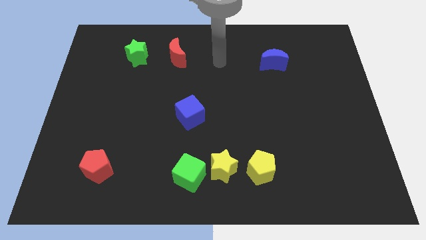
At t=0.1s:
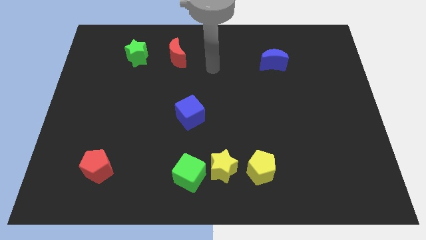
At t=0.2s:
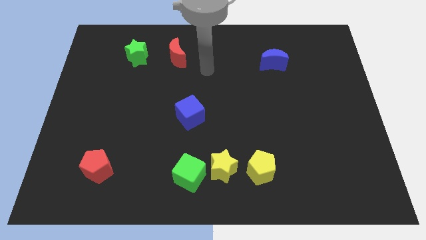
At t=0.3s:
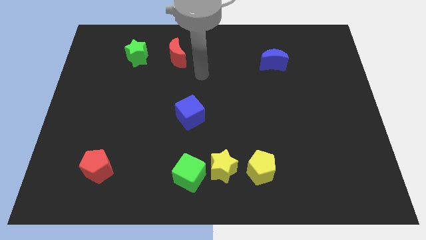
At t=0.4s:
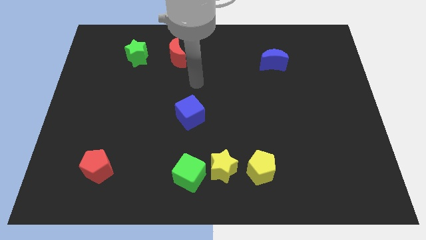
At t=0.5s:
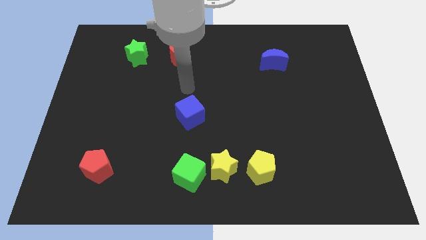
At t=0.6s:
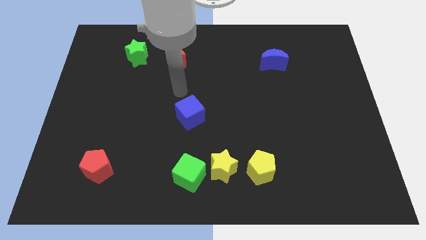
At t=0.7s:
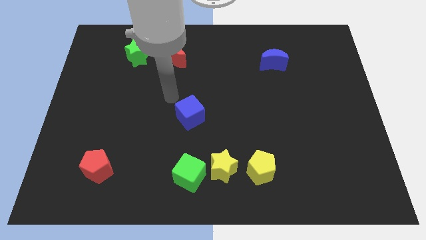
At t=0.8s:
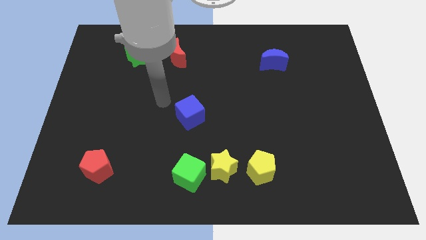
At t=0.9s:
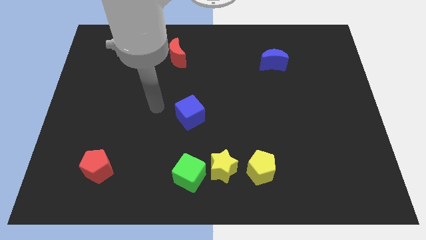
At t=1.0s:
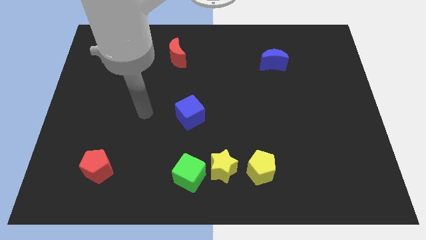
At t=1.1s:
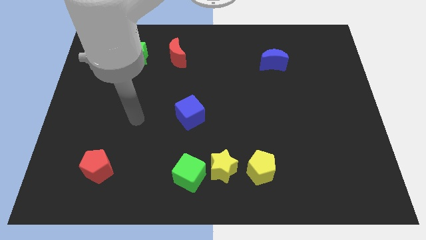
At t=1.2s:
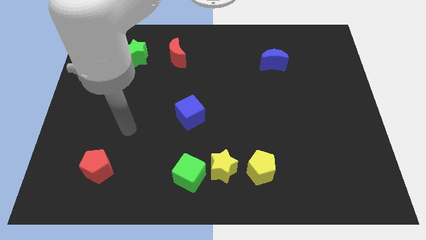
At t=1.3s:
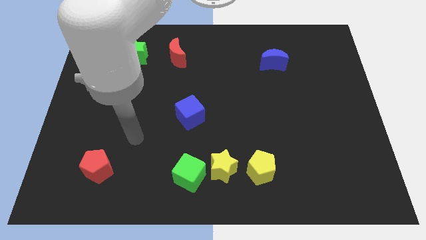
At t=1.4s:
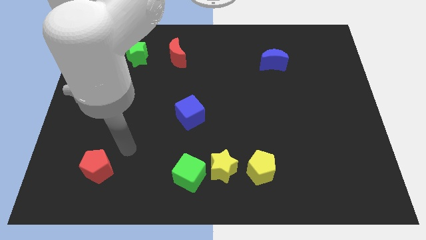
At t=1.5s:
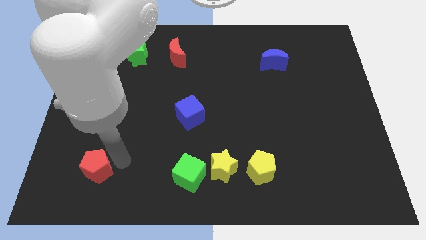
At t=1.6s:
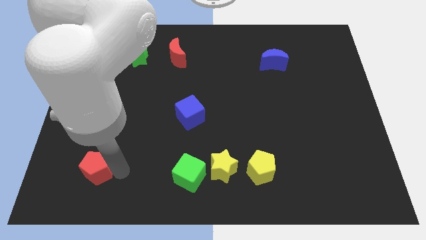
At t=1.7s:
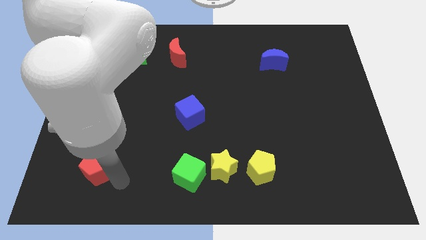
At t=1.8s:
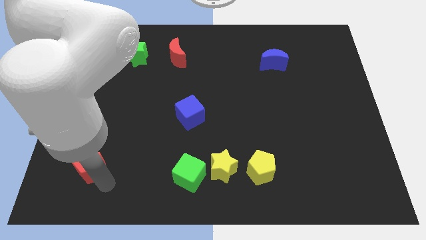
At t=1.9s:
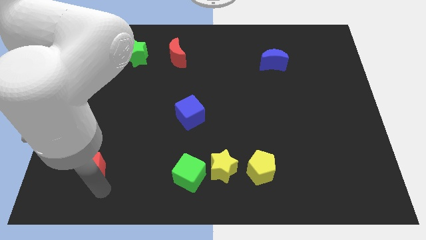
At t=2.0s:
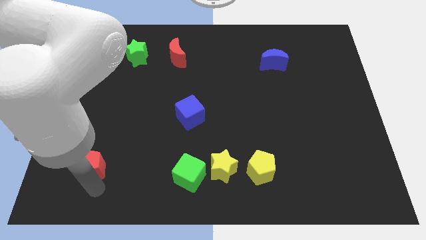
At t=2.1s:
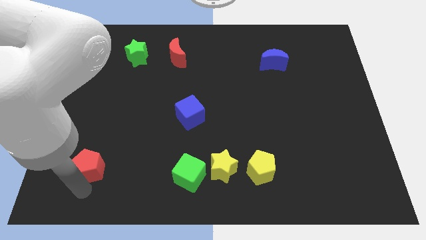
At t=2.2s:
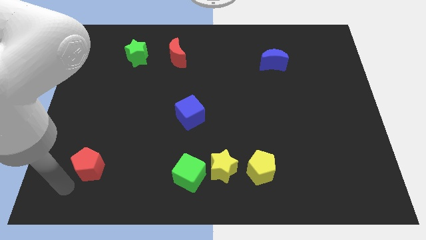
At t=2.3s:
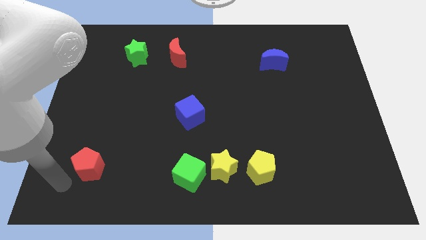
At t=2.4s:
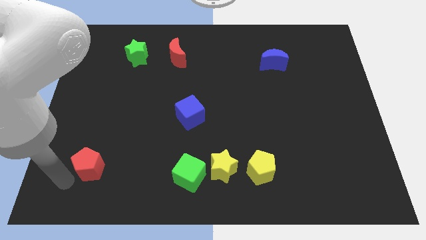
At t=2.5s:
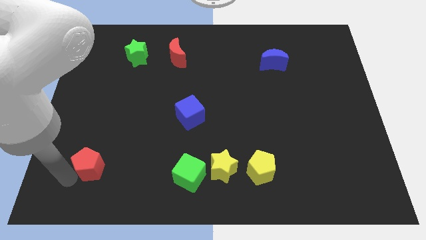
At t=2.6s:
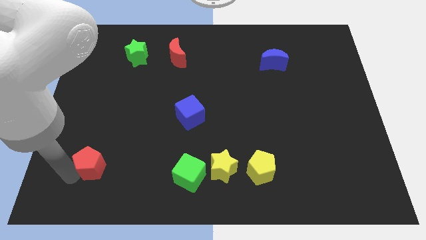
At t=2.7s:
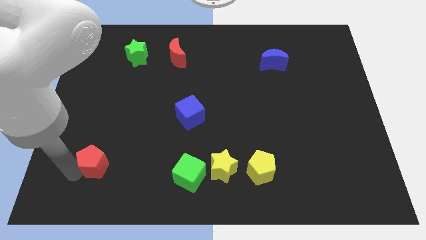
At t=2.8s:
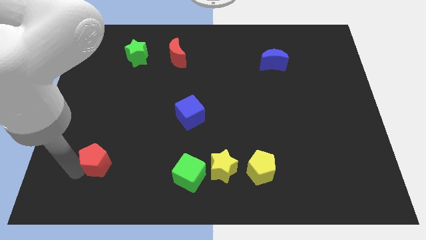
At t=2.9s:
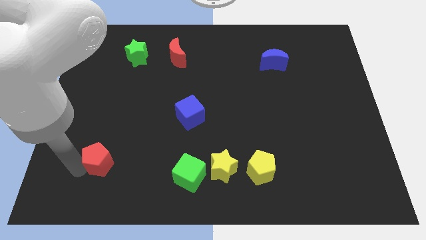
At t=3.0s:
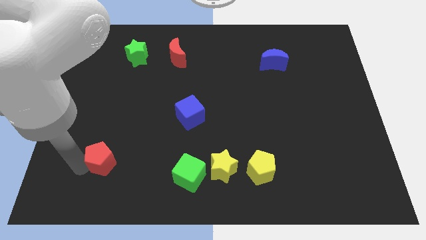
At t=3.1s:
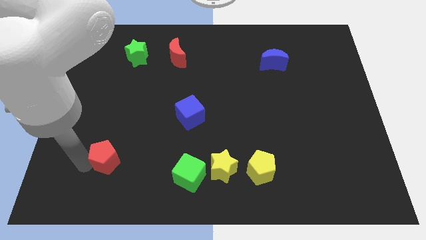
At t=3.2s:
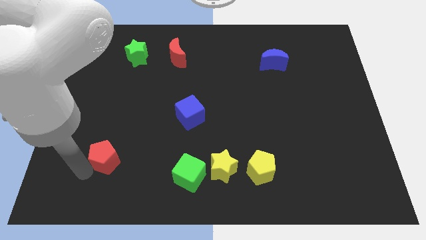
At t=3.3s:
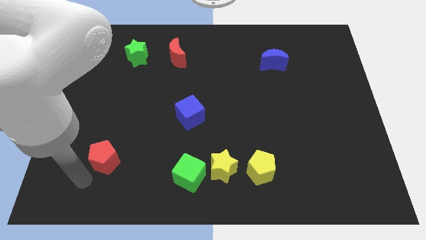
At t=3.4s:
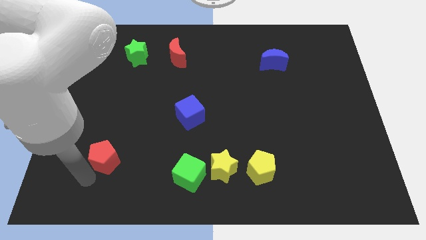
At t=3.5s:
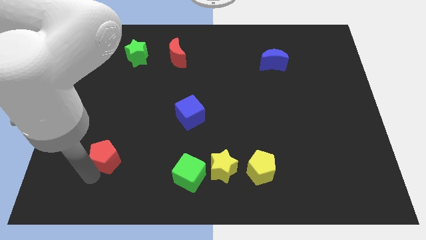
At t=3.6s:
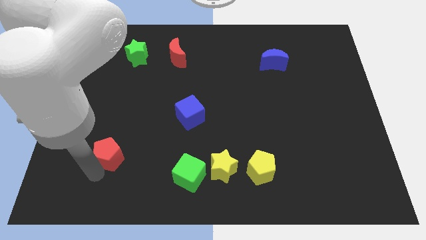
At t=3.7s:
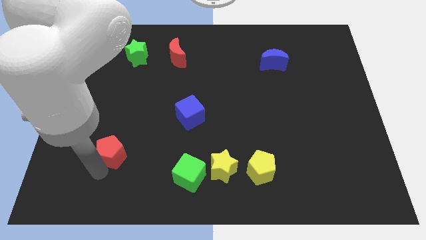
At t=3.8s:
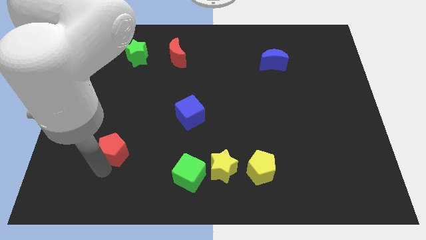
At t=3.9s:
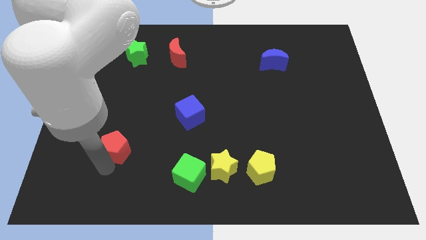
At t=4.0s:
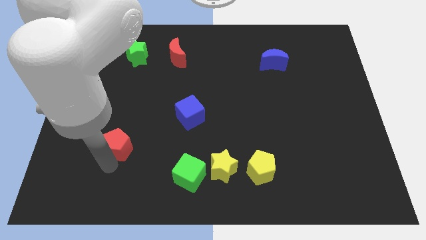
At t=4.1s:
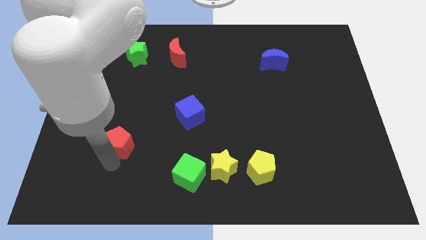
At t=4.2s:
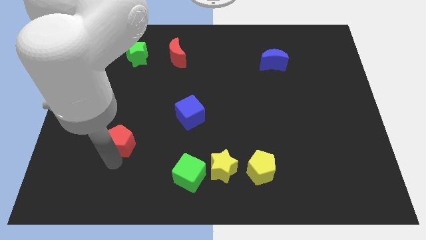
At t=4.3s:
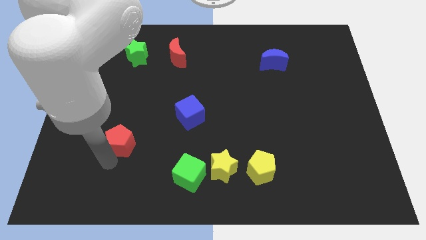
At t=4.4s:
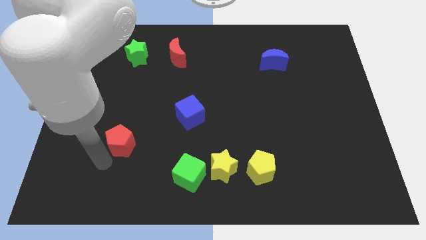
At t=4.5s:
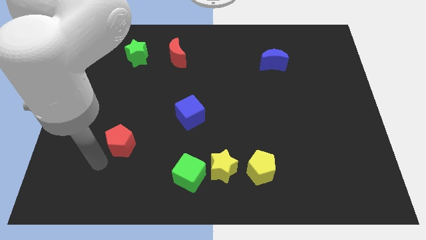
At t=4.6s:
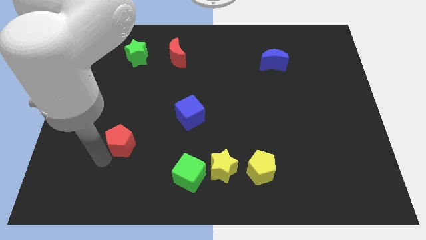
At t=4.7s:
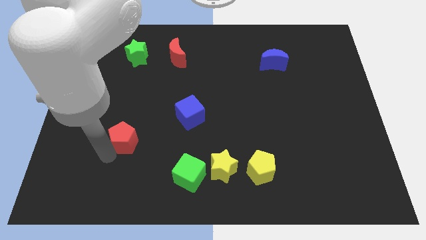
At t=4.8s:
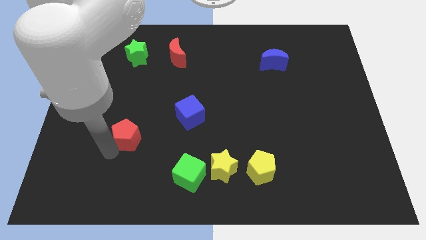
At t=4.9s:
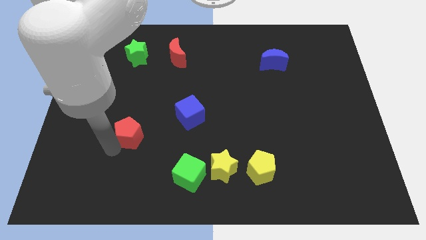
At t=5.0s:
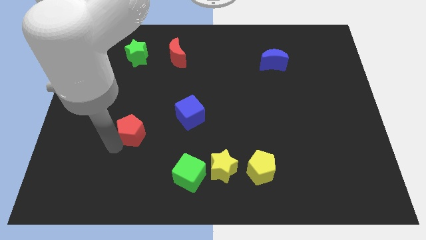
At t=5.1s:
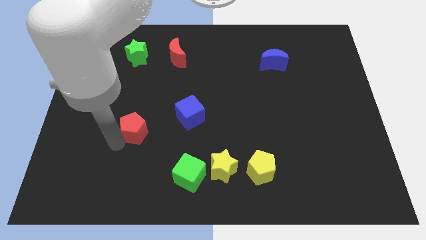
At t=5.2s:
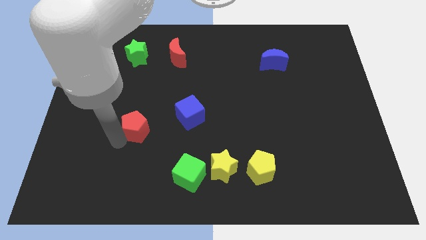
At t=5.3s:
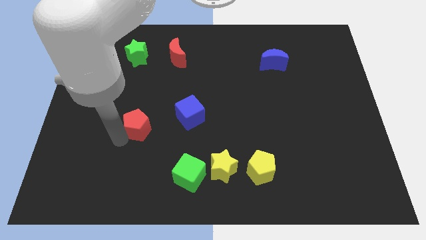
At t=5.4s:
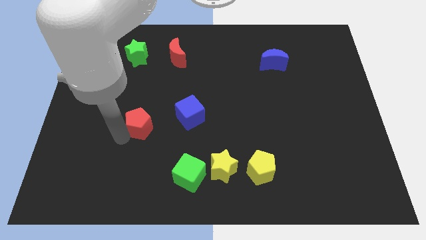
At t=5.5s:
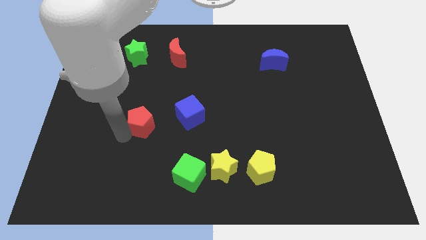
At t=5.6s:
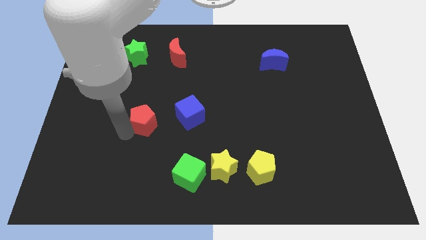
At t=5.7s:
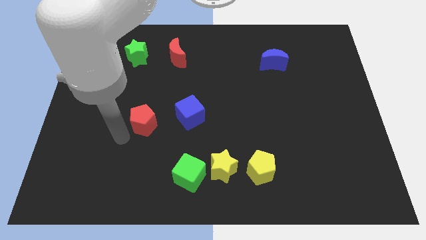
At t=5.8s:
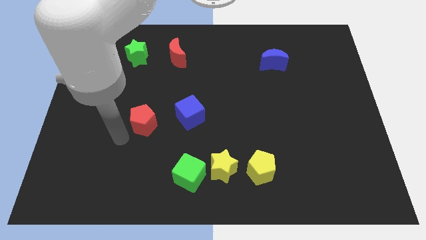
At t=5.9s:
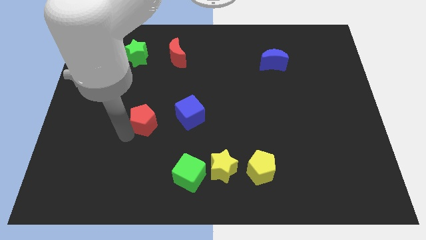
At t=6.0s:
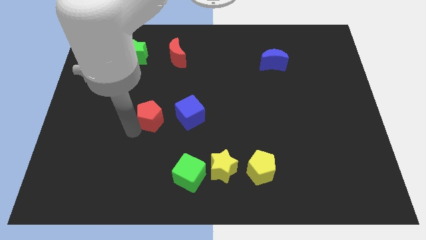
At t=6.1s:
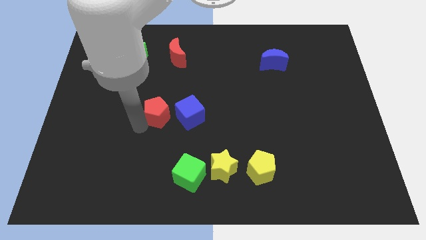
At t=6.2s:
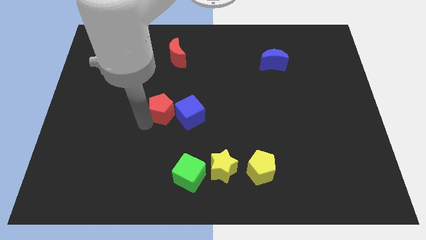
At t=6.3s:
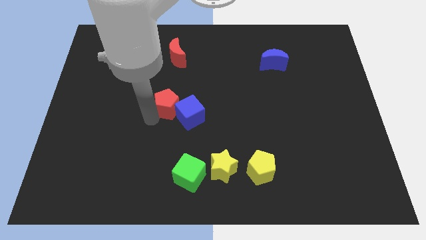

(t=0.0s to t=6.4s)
slide the red pentagon upwards and then right

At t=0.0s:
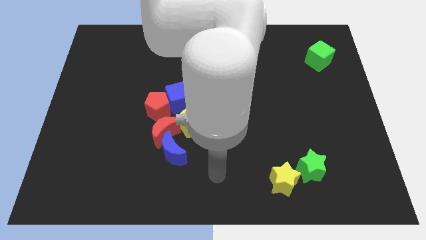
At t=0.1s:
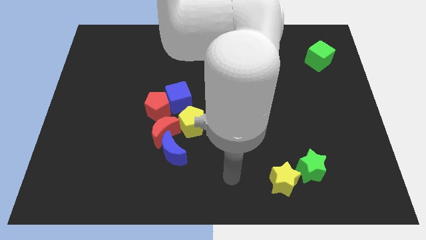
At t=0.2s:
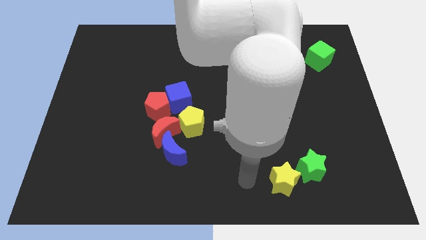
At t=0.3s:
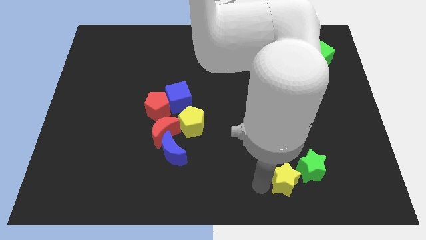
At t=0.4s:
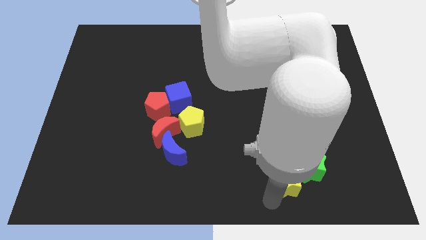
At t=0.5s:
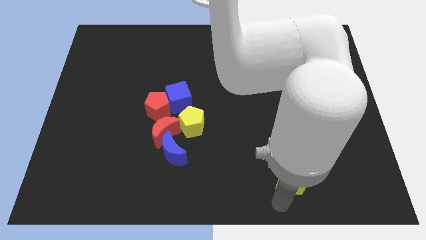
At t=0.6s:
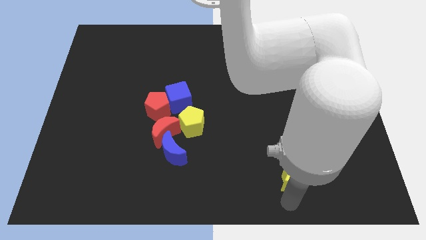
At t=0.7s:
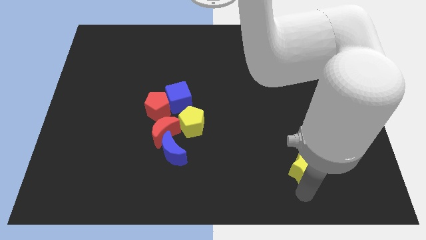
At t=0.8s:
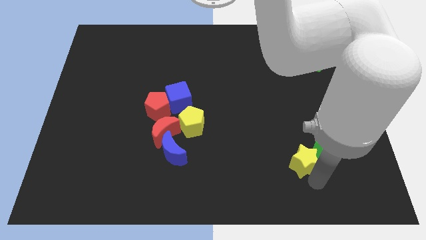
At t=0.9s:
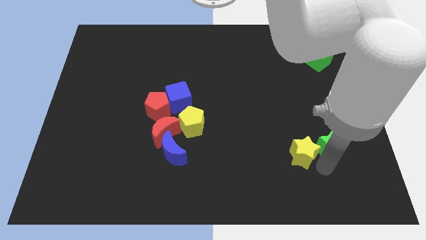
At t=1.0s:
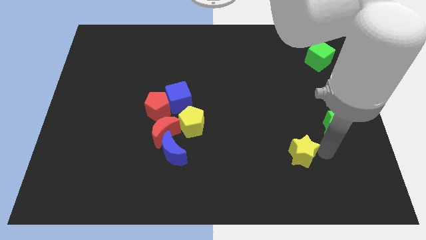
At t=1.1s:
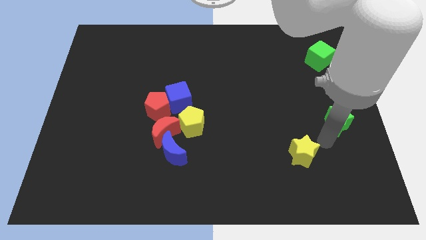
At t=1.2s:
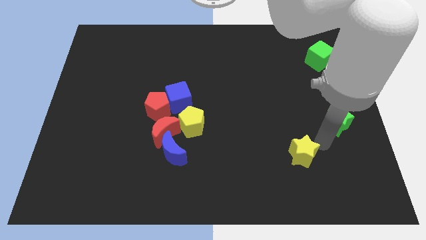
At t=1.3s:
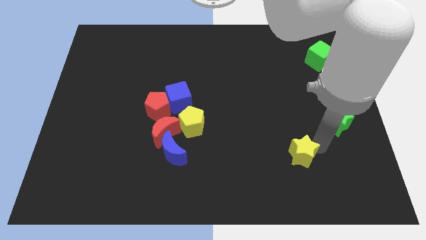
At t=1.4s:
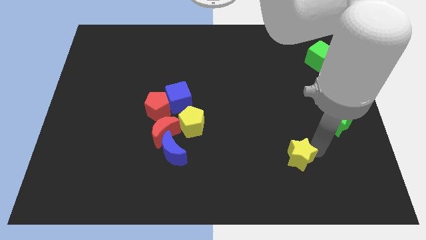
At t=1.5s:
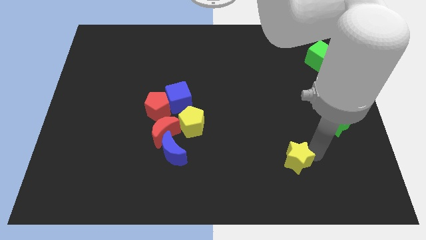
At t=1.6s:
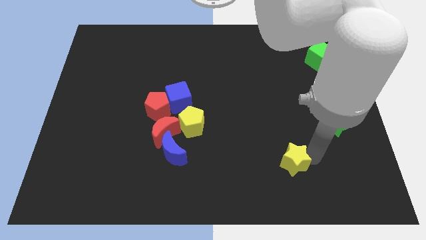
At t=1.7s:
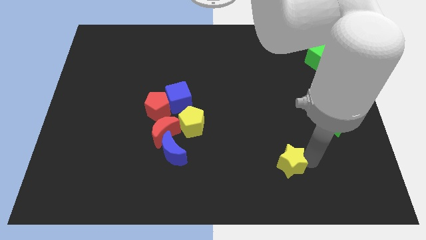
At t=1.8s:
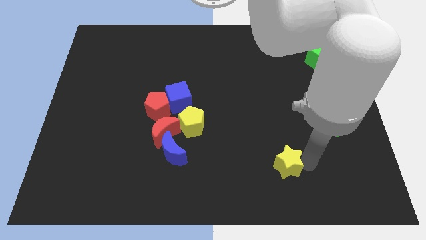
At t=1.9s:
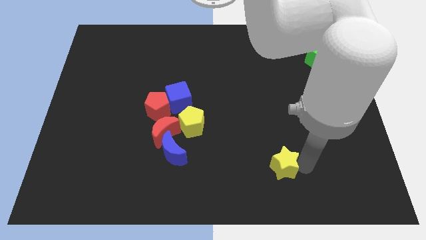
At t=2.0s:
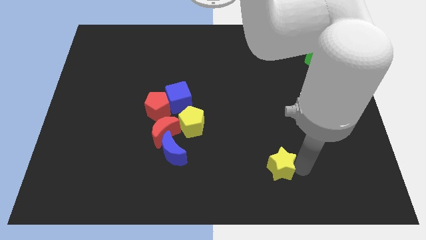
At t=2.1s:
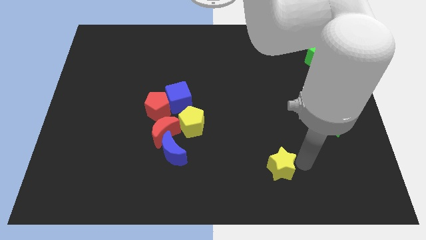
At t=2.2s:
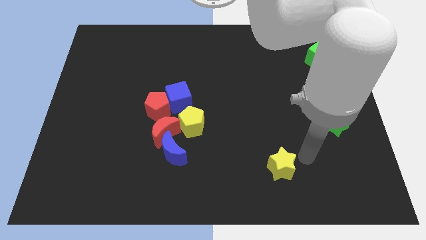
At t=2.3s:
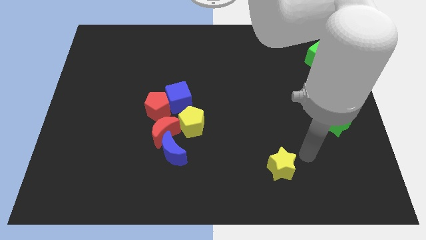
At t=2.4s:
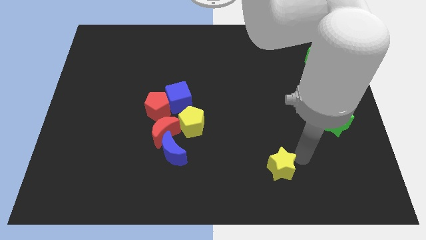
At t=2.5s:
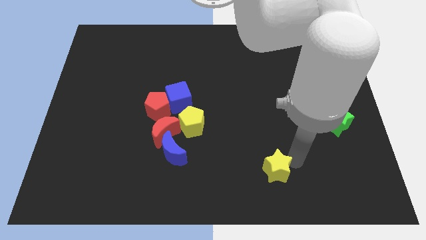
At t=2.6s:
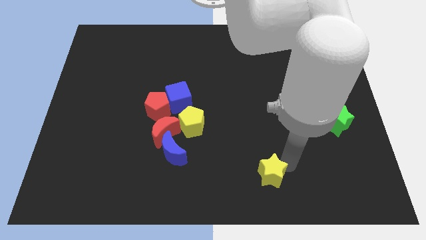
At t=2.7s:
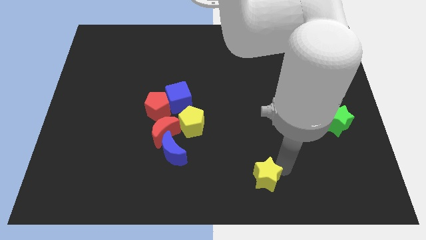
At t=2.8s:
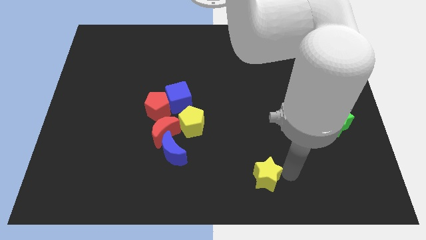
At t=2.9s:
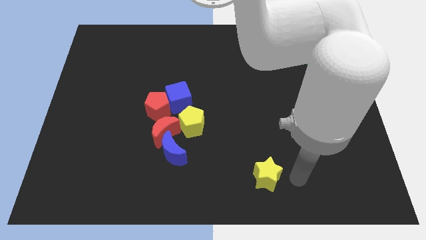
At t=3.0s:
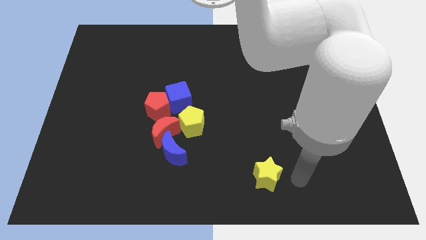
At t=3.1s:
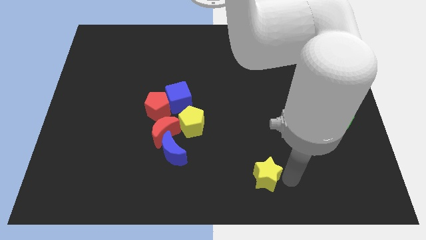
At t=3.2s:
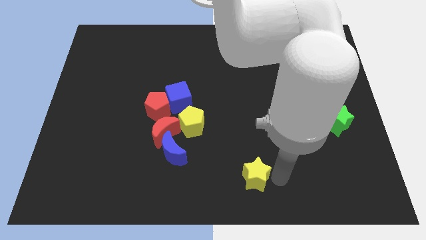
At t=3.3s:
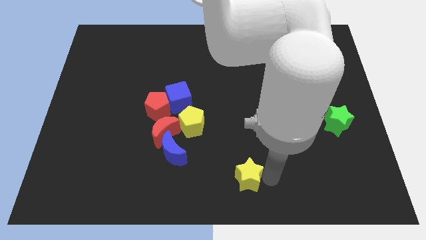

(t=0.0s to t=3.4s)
slightly move the yellow star to the left
